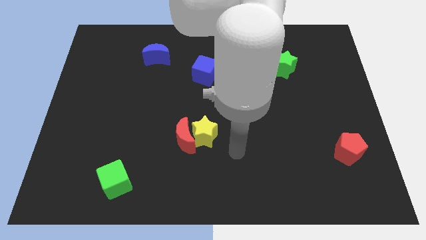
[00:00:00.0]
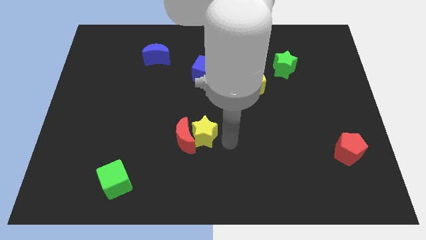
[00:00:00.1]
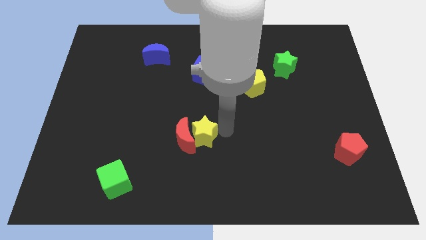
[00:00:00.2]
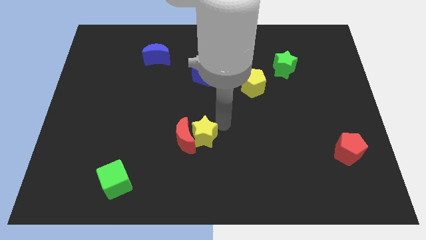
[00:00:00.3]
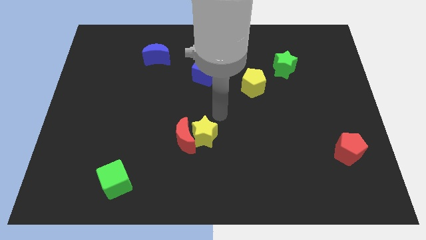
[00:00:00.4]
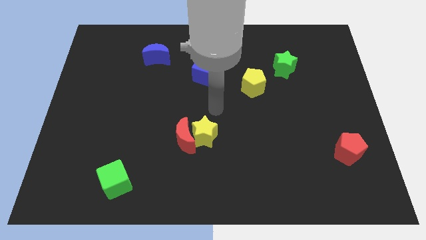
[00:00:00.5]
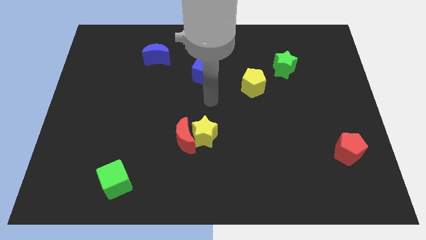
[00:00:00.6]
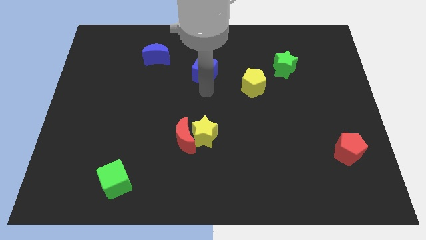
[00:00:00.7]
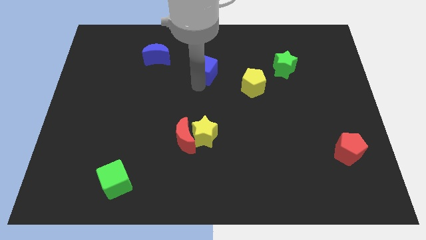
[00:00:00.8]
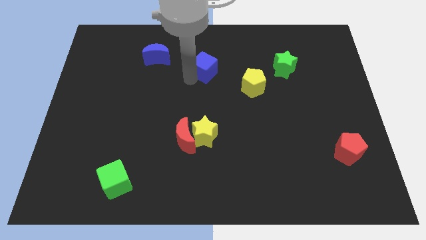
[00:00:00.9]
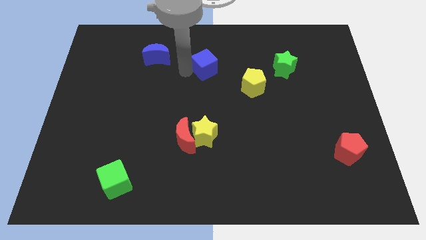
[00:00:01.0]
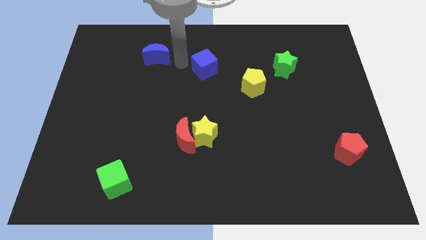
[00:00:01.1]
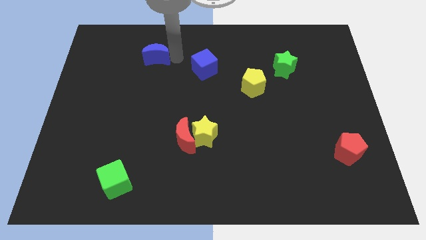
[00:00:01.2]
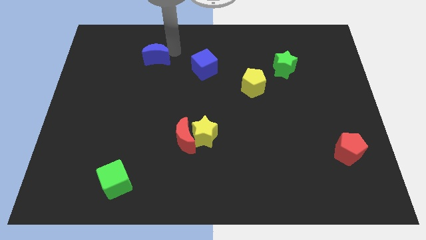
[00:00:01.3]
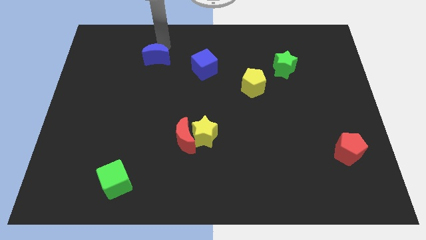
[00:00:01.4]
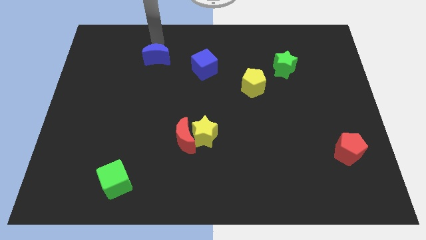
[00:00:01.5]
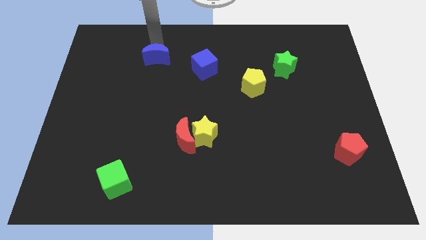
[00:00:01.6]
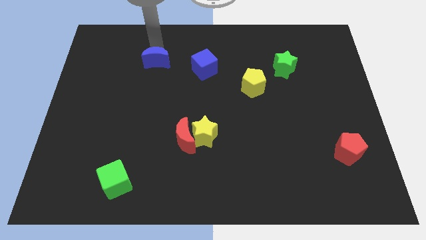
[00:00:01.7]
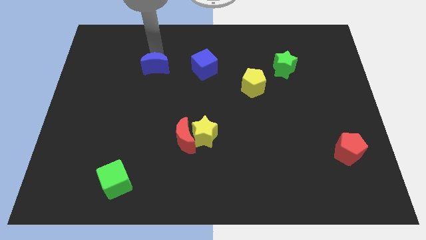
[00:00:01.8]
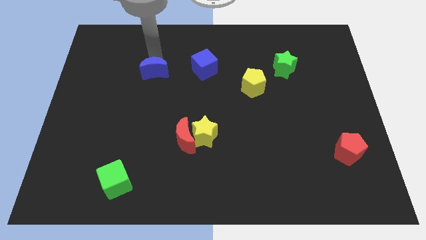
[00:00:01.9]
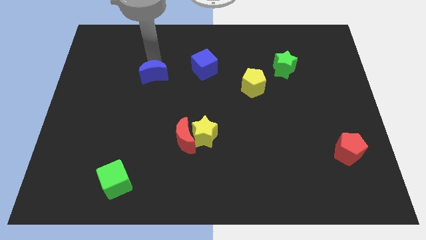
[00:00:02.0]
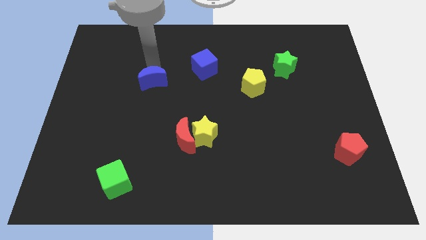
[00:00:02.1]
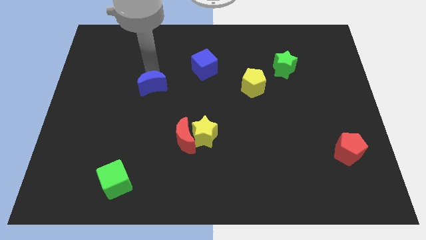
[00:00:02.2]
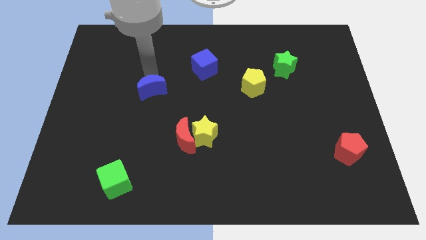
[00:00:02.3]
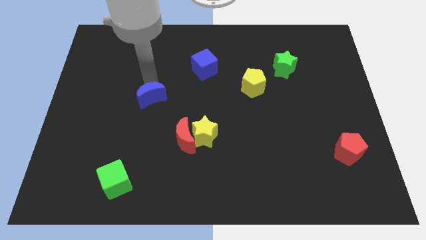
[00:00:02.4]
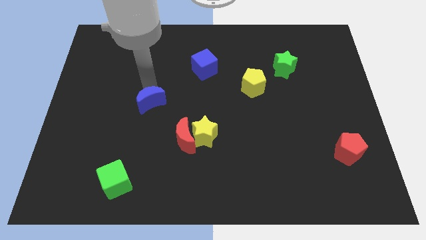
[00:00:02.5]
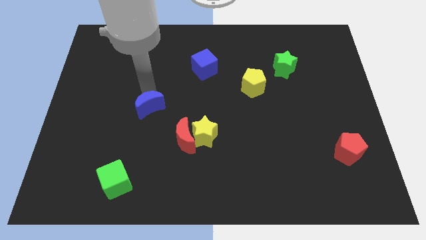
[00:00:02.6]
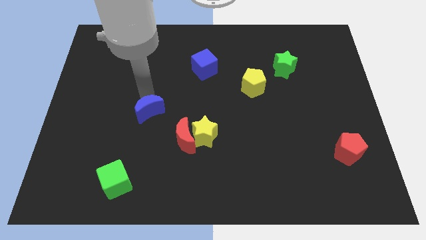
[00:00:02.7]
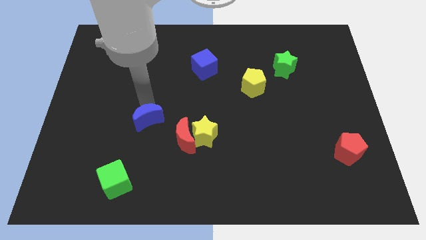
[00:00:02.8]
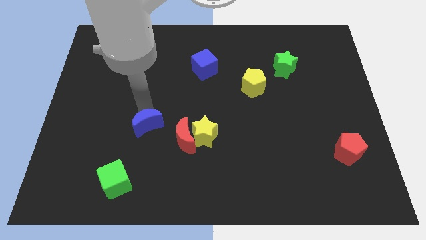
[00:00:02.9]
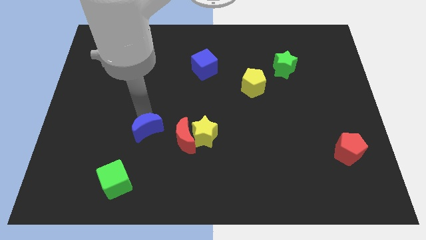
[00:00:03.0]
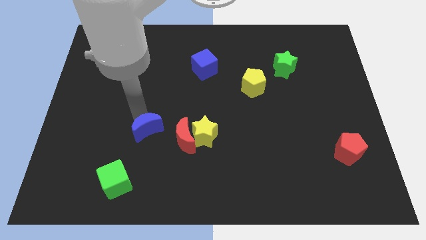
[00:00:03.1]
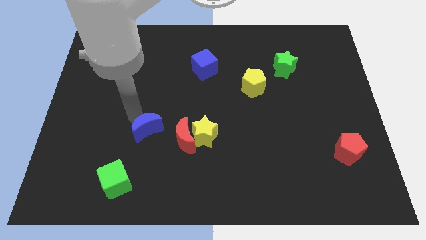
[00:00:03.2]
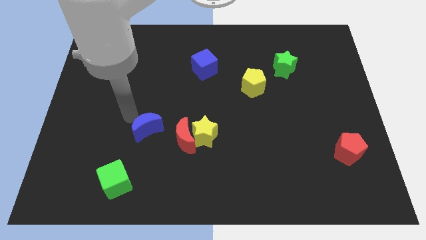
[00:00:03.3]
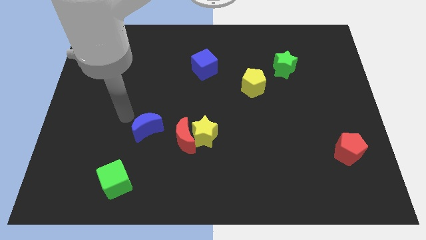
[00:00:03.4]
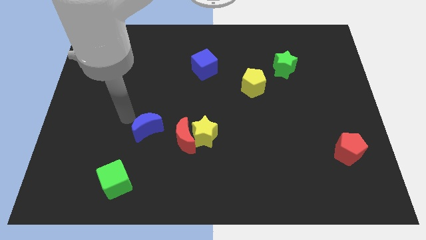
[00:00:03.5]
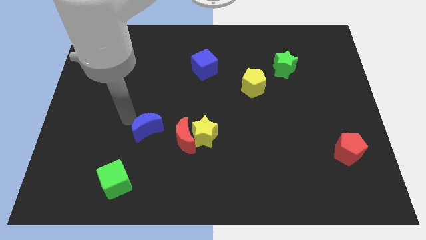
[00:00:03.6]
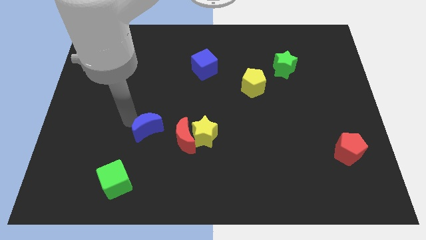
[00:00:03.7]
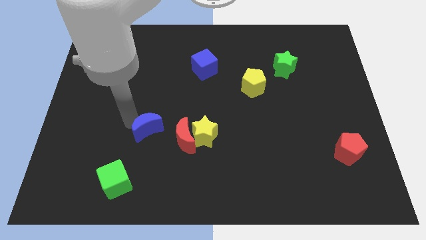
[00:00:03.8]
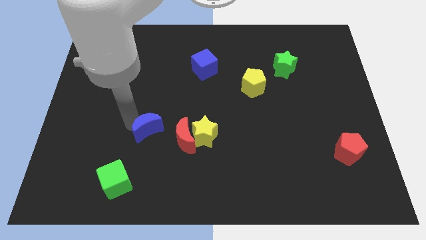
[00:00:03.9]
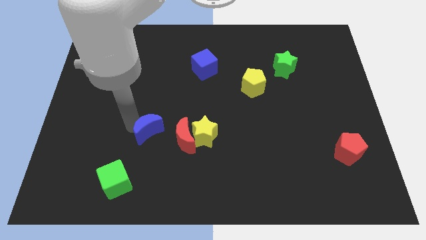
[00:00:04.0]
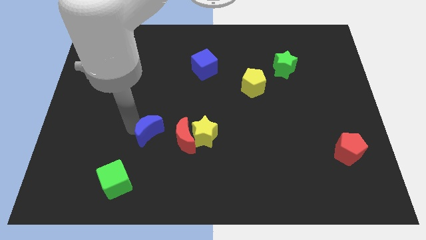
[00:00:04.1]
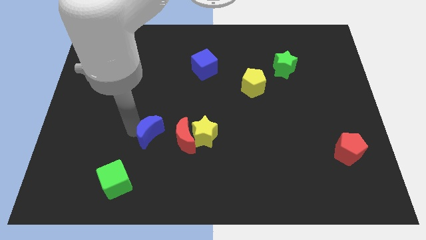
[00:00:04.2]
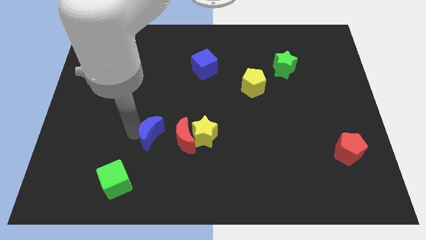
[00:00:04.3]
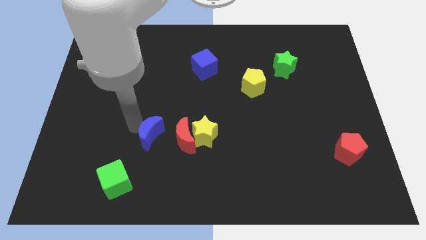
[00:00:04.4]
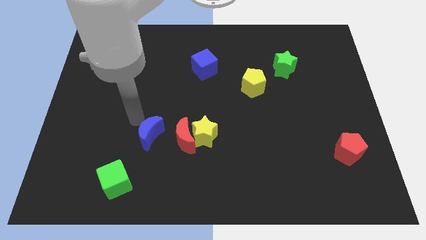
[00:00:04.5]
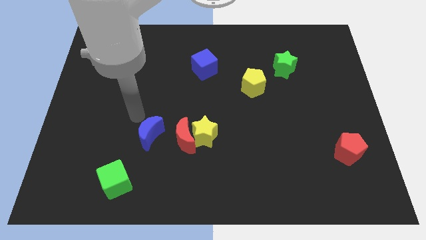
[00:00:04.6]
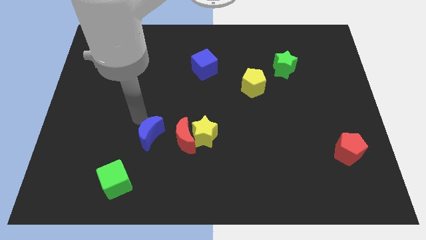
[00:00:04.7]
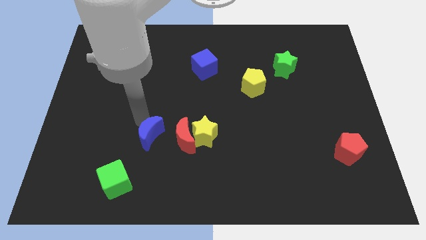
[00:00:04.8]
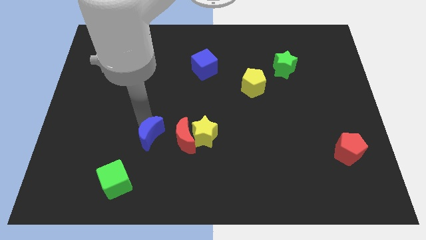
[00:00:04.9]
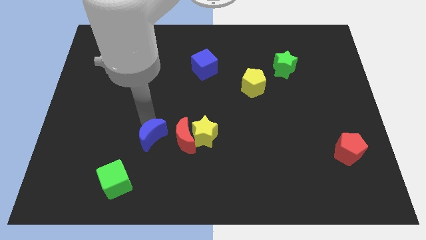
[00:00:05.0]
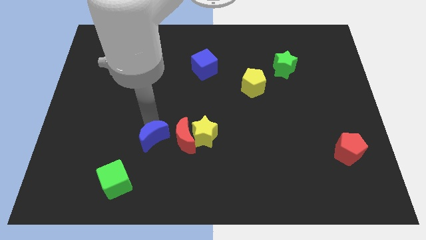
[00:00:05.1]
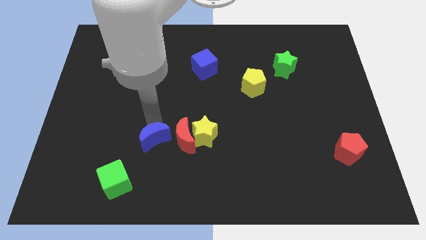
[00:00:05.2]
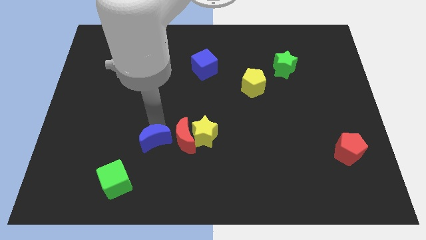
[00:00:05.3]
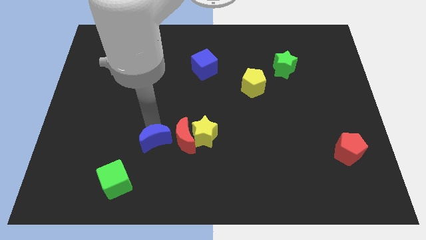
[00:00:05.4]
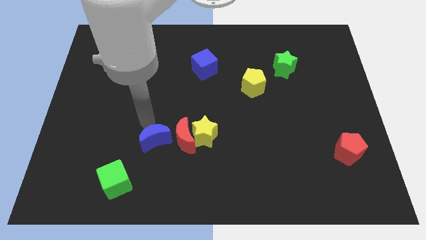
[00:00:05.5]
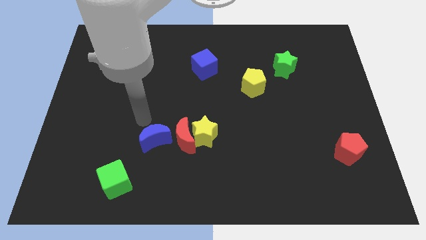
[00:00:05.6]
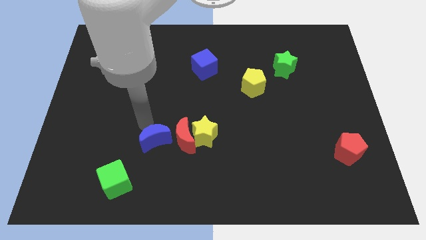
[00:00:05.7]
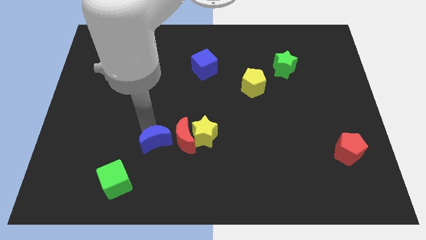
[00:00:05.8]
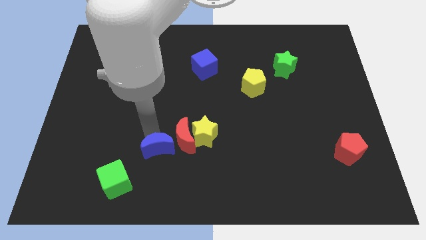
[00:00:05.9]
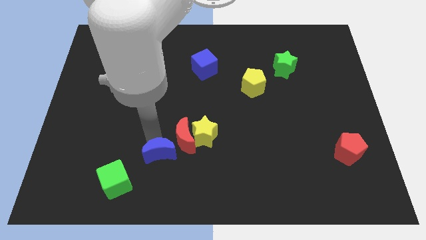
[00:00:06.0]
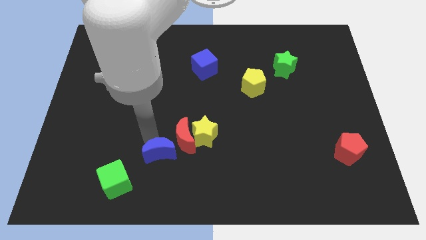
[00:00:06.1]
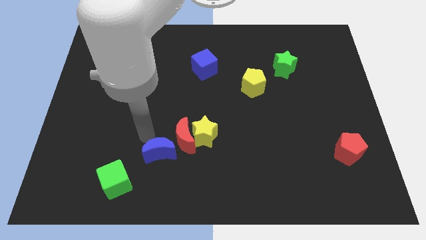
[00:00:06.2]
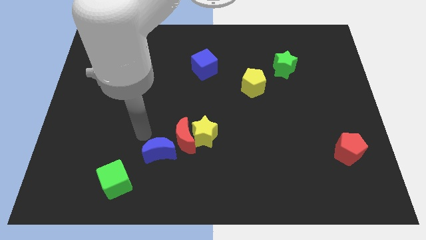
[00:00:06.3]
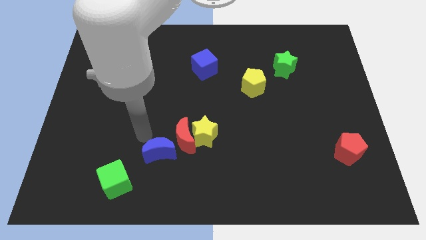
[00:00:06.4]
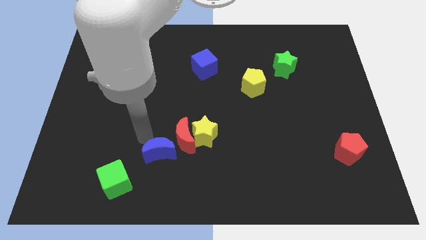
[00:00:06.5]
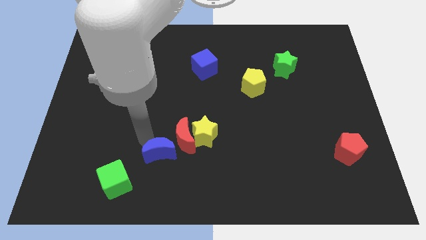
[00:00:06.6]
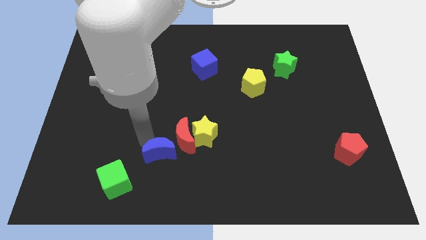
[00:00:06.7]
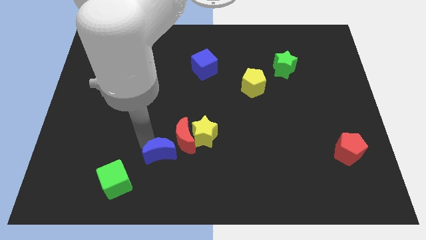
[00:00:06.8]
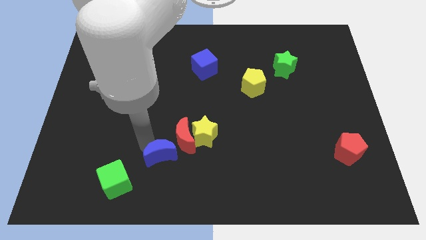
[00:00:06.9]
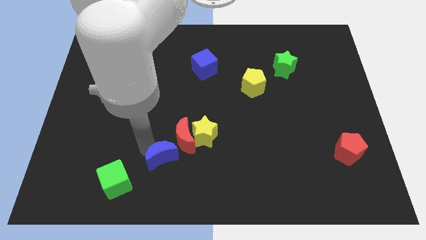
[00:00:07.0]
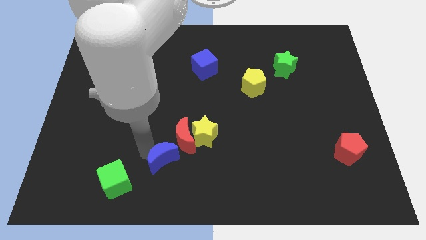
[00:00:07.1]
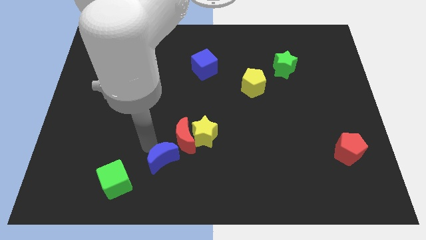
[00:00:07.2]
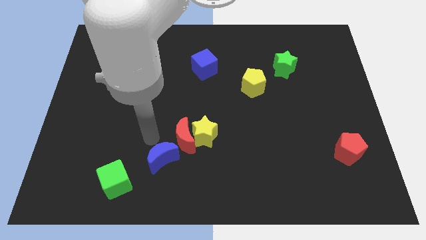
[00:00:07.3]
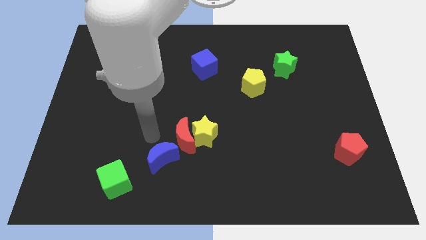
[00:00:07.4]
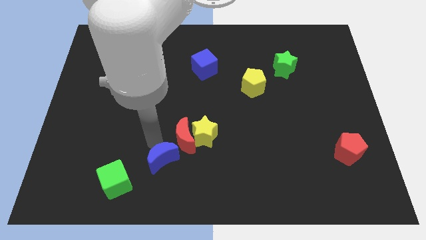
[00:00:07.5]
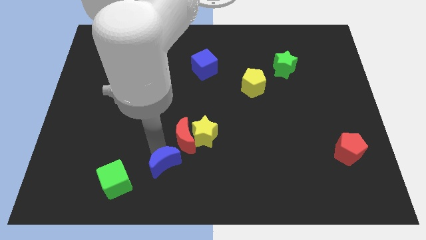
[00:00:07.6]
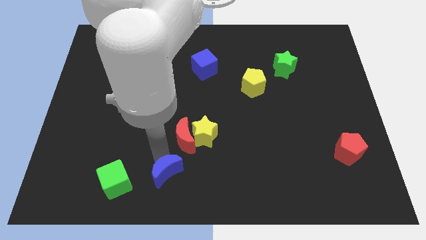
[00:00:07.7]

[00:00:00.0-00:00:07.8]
push the blue moon to the bottom side
